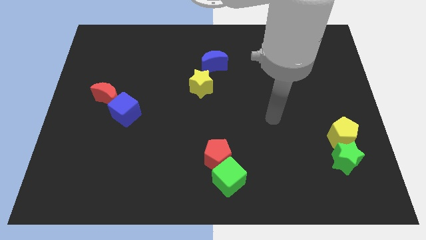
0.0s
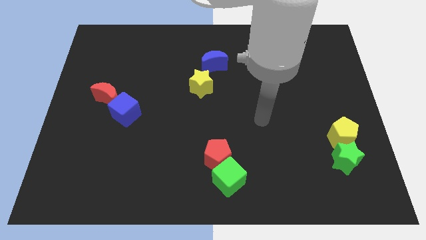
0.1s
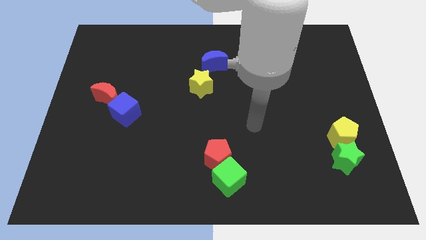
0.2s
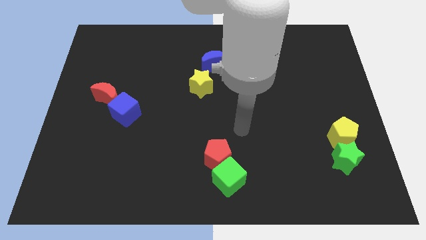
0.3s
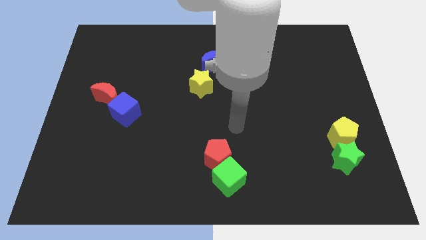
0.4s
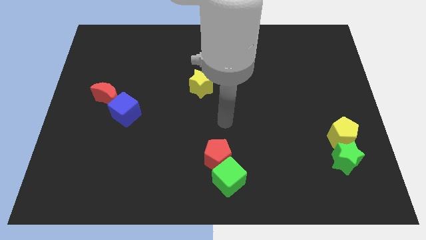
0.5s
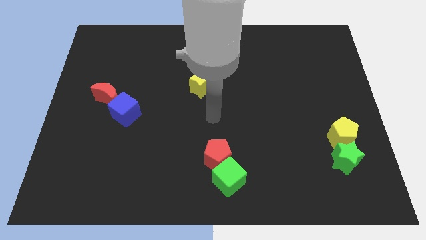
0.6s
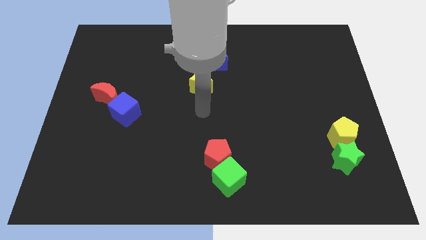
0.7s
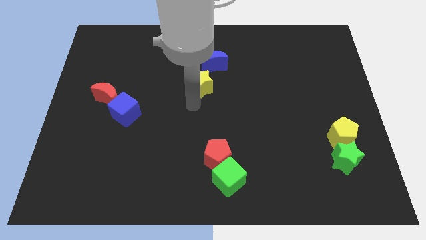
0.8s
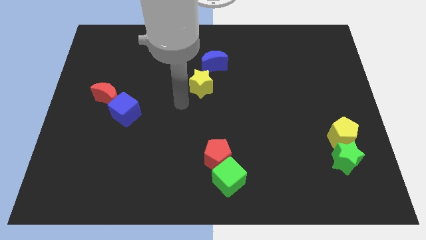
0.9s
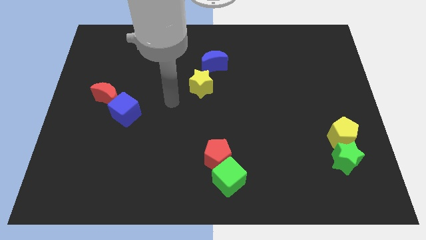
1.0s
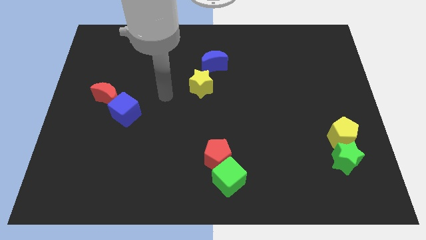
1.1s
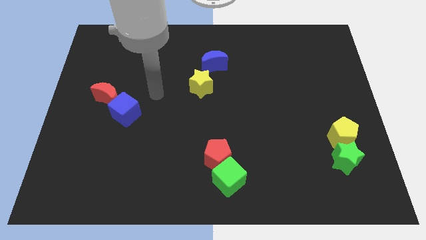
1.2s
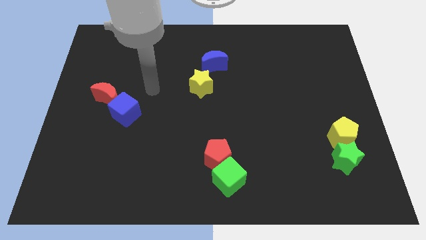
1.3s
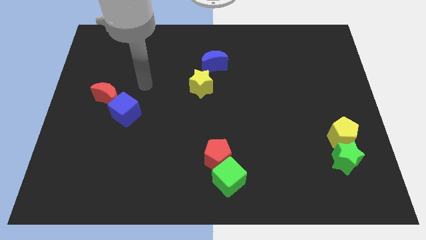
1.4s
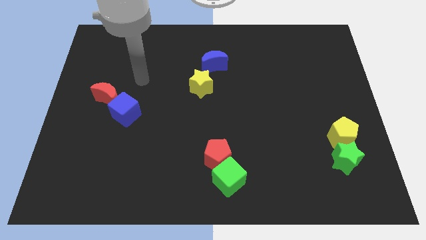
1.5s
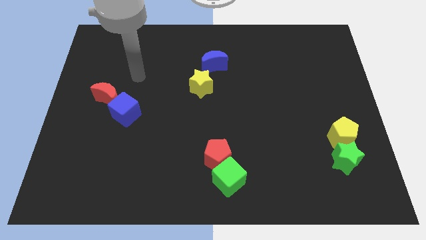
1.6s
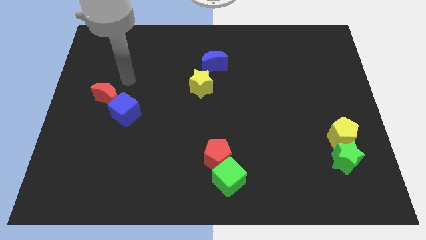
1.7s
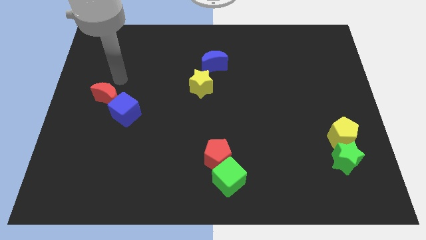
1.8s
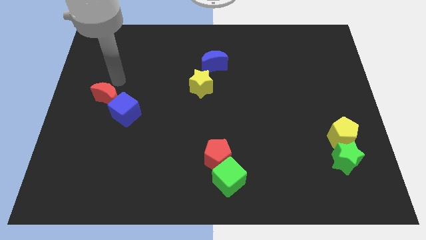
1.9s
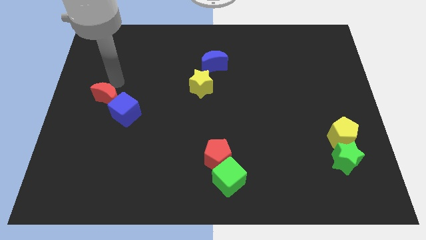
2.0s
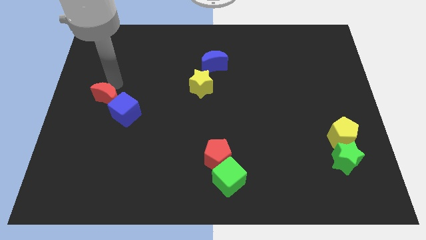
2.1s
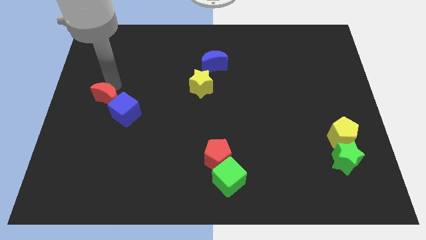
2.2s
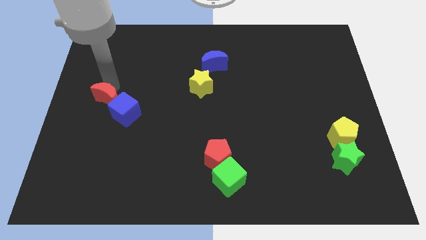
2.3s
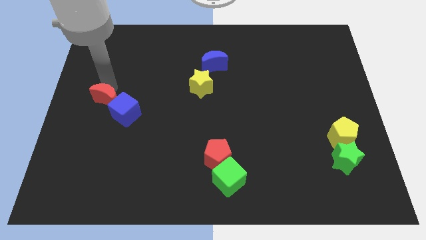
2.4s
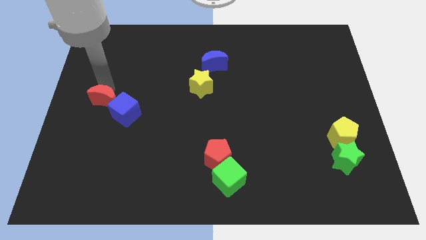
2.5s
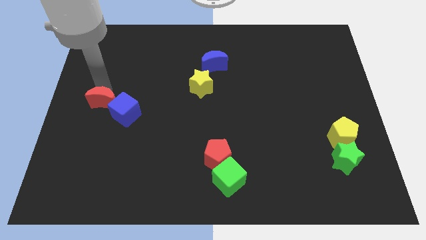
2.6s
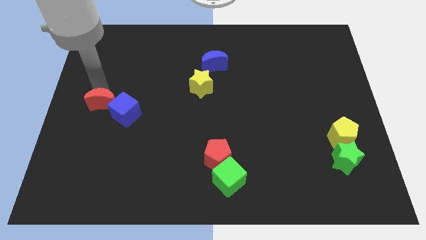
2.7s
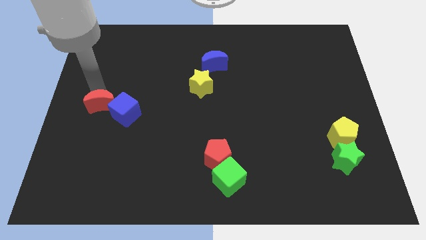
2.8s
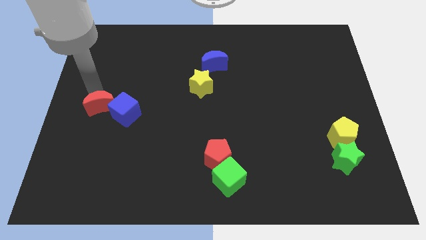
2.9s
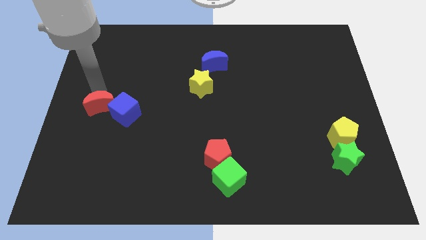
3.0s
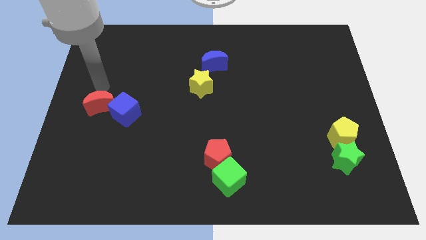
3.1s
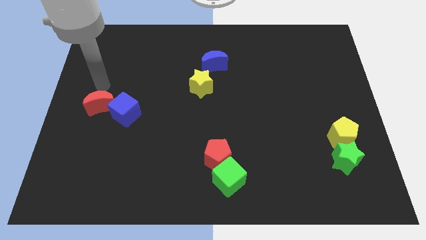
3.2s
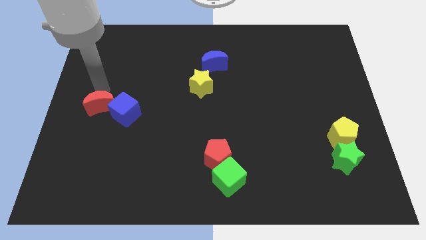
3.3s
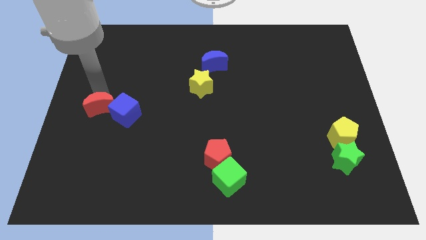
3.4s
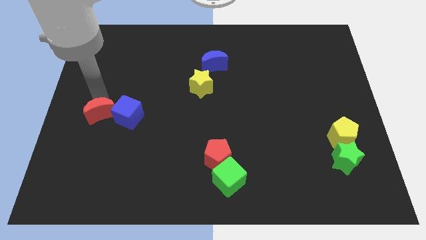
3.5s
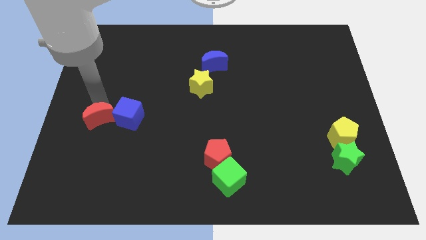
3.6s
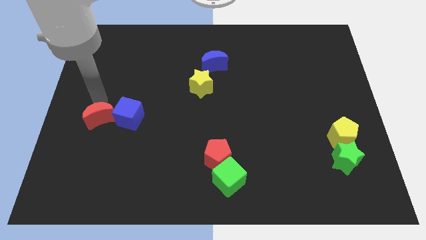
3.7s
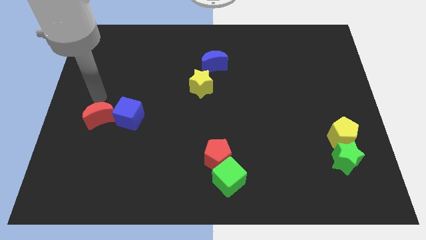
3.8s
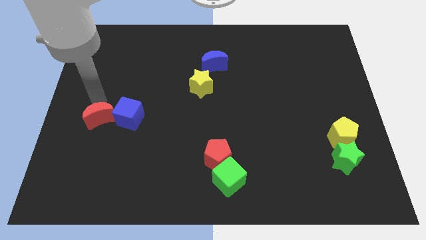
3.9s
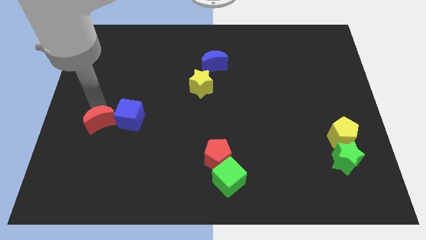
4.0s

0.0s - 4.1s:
move the red moon downwards a little bit

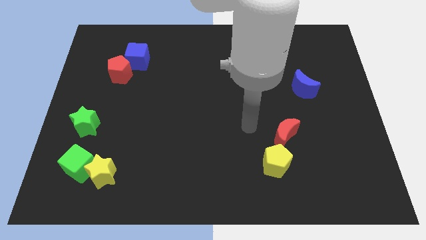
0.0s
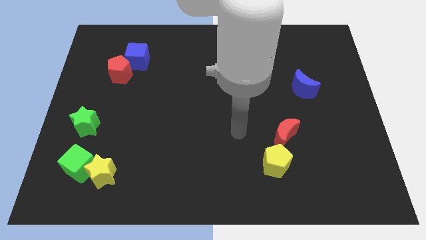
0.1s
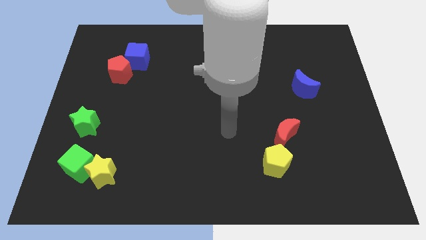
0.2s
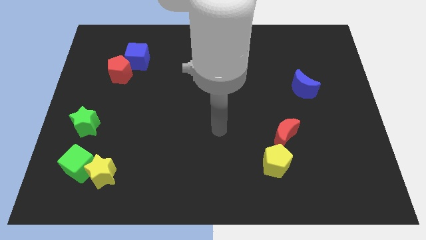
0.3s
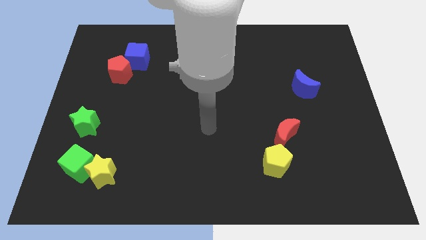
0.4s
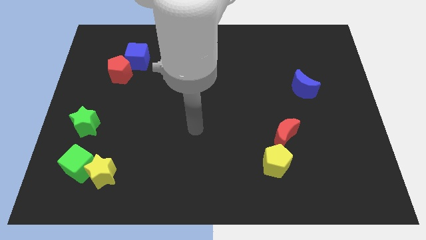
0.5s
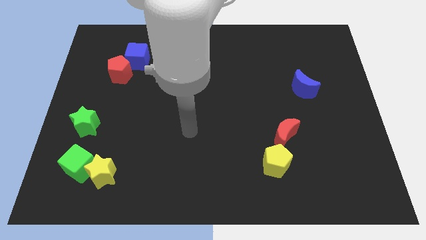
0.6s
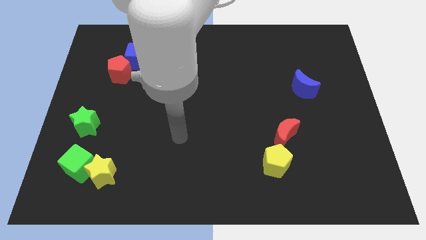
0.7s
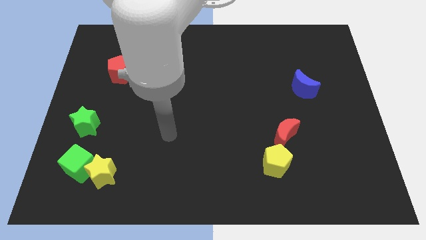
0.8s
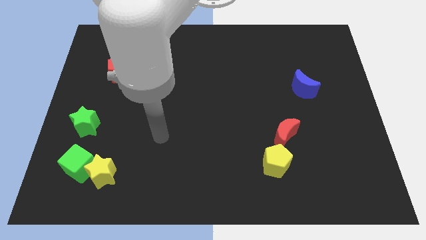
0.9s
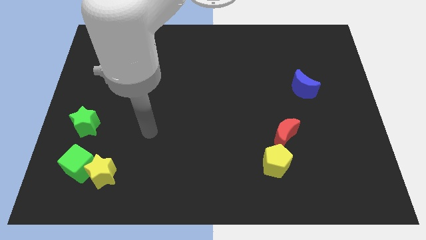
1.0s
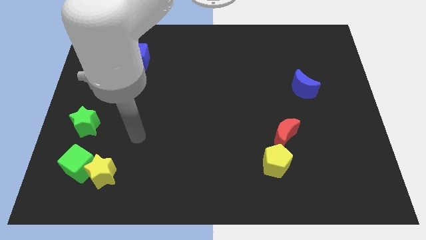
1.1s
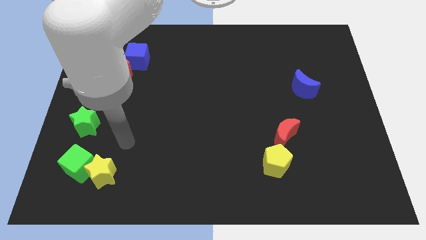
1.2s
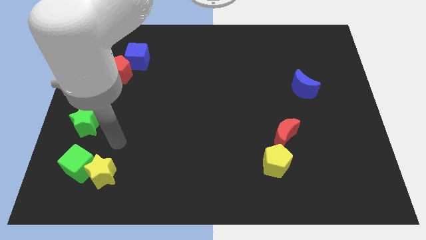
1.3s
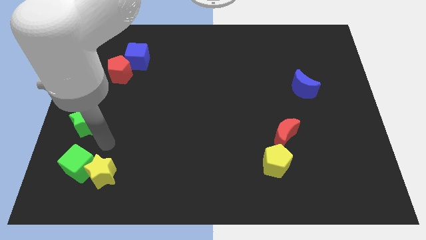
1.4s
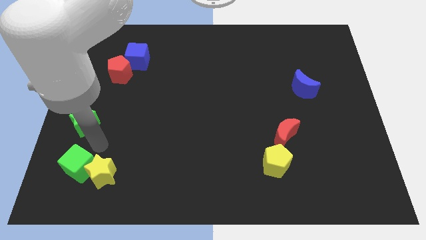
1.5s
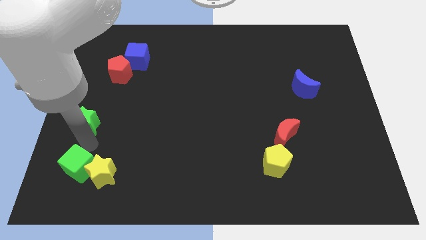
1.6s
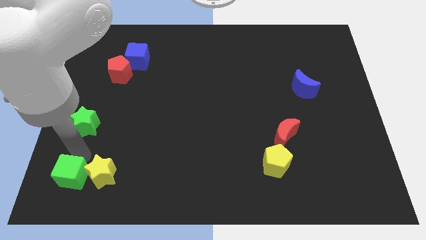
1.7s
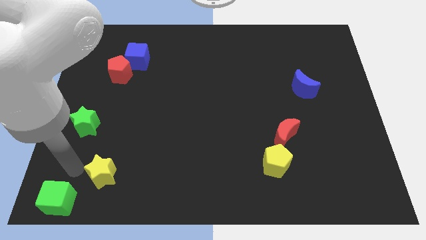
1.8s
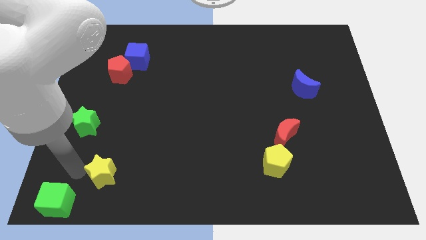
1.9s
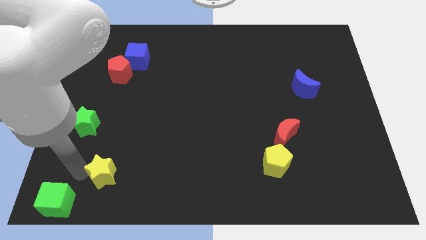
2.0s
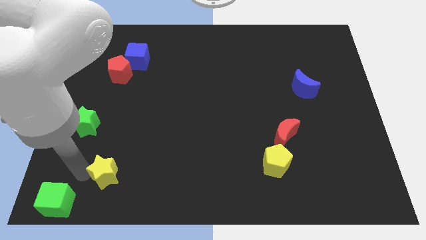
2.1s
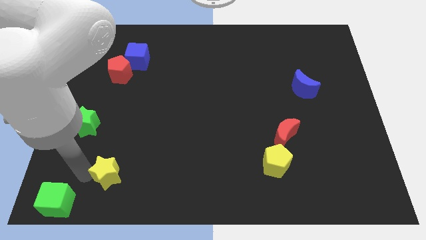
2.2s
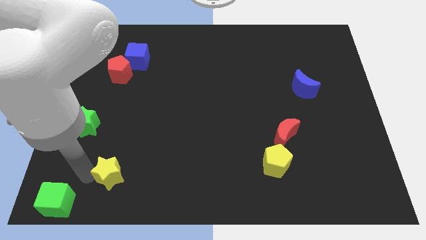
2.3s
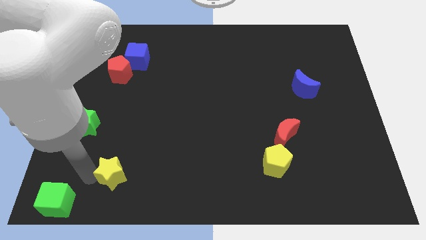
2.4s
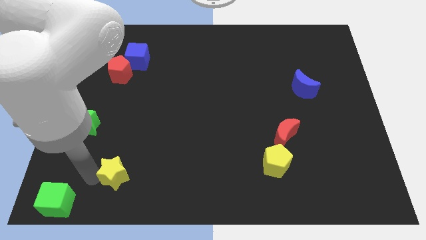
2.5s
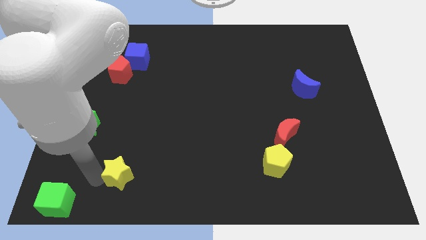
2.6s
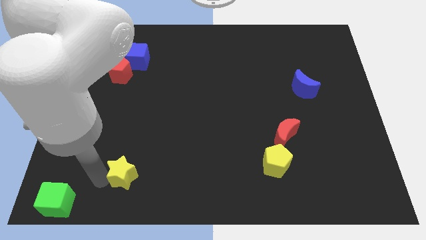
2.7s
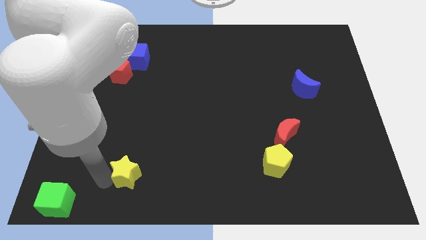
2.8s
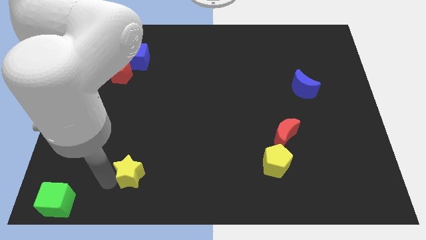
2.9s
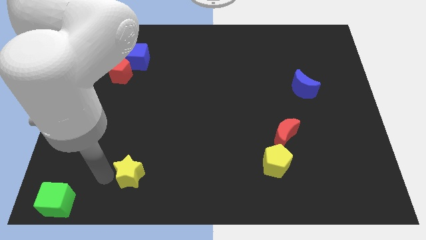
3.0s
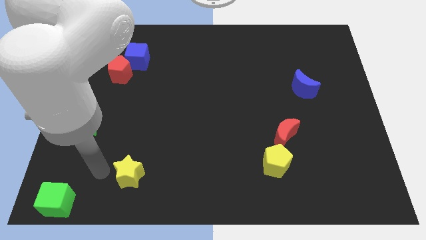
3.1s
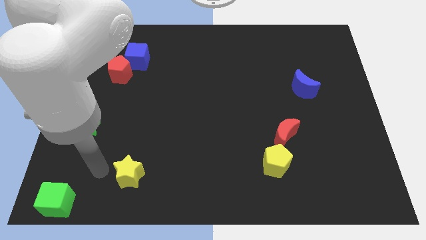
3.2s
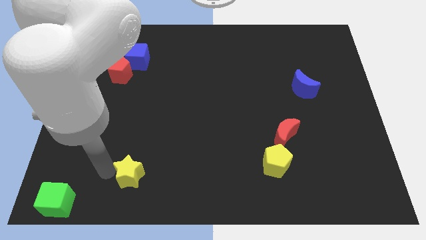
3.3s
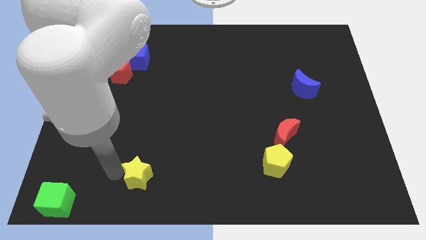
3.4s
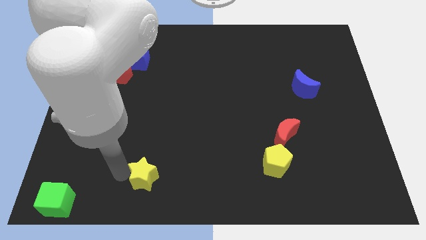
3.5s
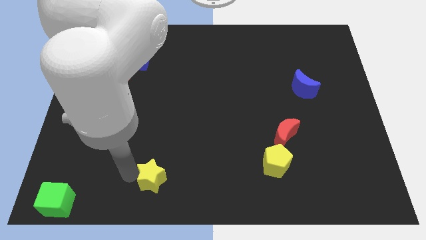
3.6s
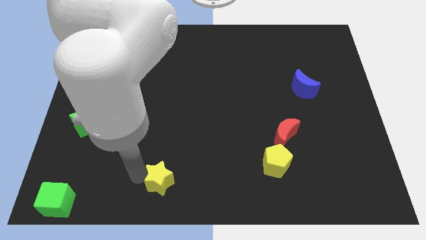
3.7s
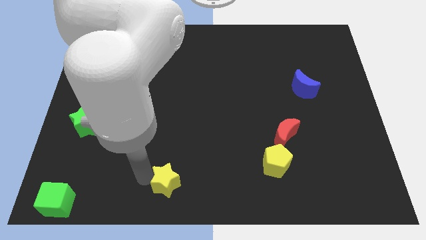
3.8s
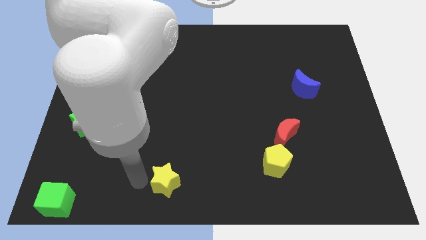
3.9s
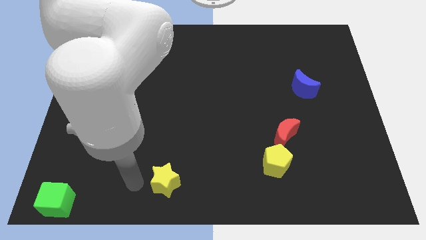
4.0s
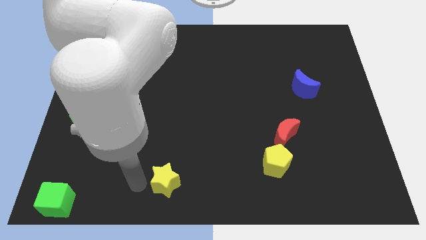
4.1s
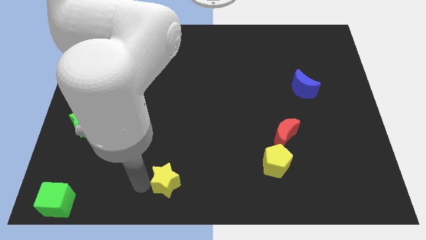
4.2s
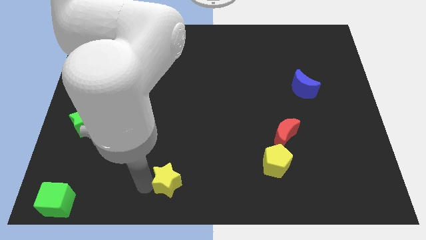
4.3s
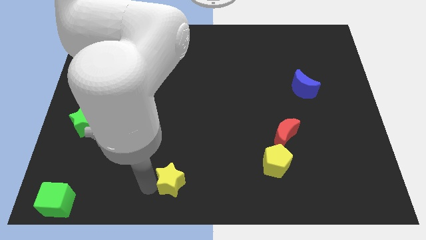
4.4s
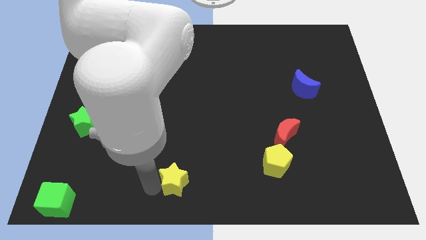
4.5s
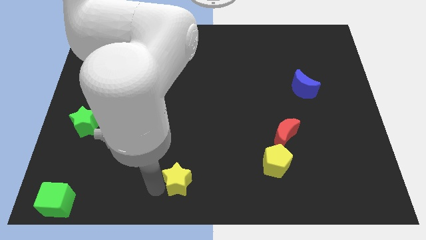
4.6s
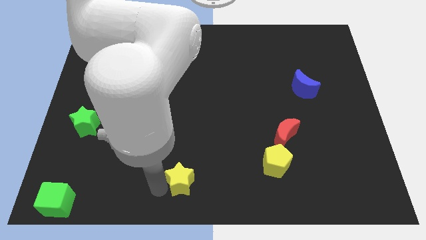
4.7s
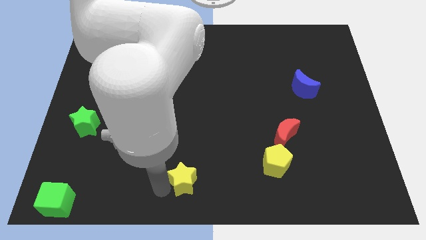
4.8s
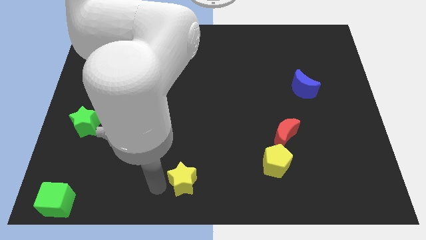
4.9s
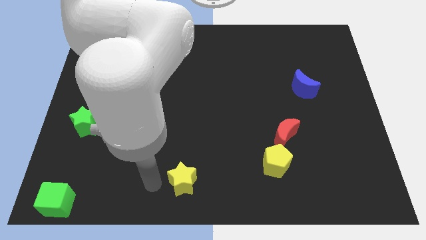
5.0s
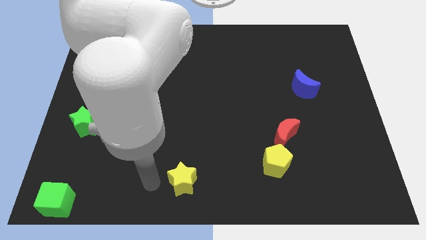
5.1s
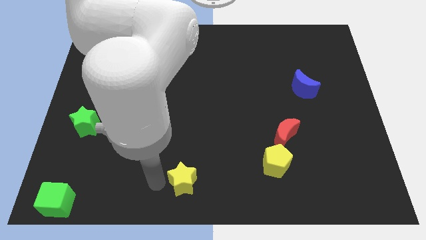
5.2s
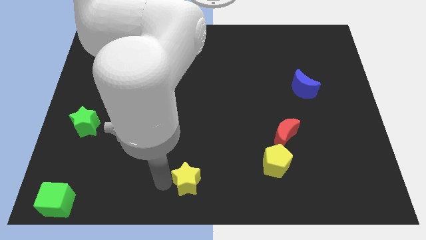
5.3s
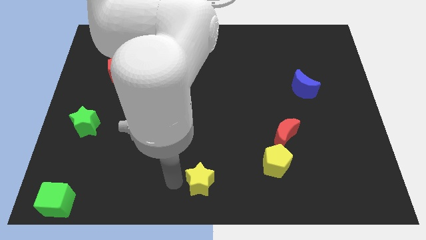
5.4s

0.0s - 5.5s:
move the yellow star to the right
